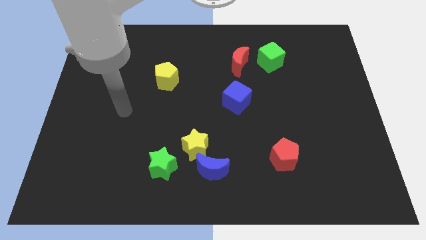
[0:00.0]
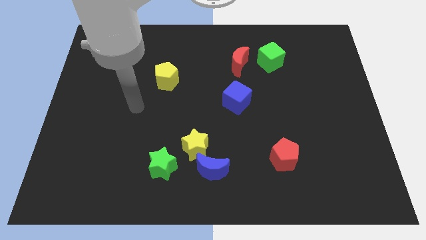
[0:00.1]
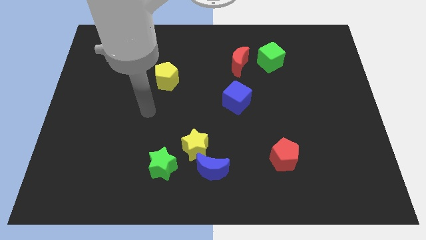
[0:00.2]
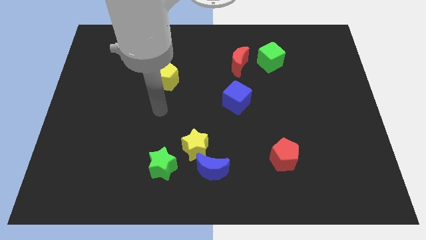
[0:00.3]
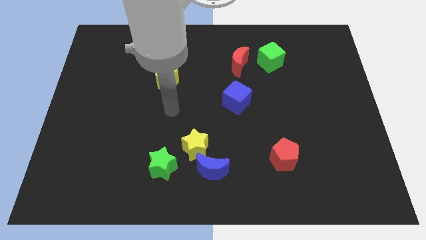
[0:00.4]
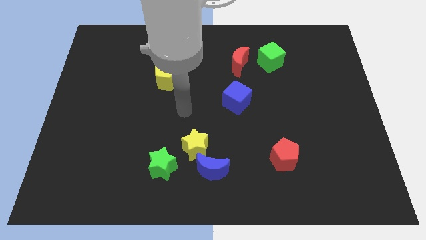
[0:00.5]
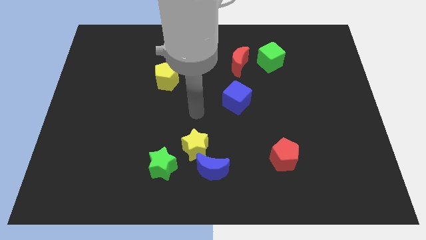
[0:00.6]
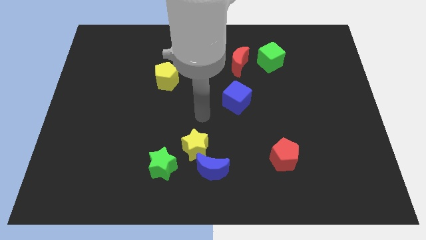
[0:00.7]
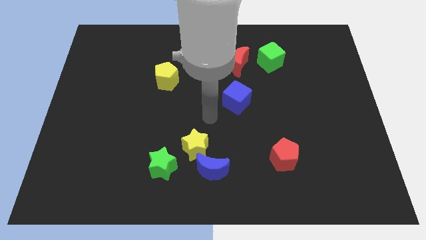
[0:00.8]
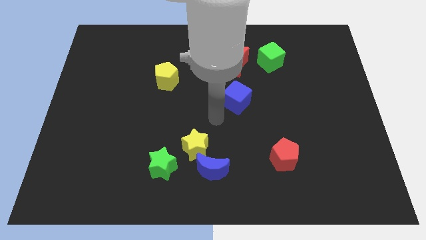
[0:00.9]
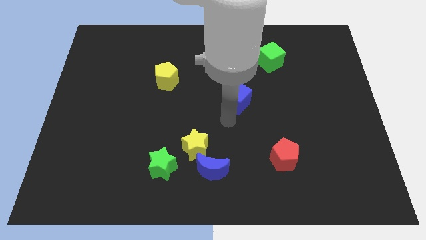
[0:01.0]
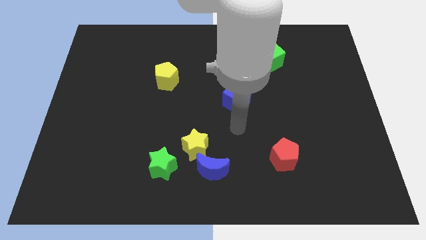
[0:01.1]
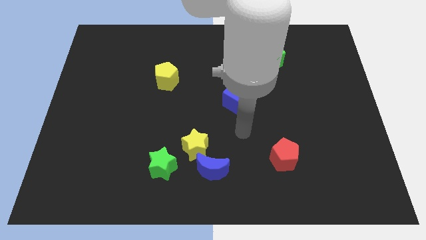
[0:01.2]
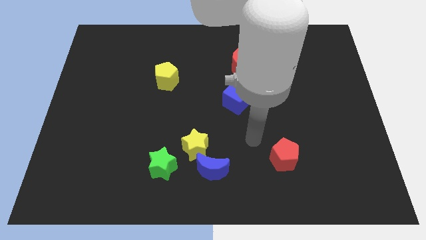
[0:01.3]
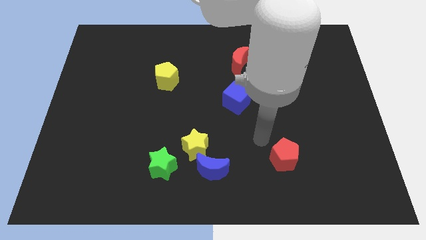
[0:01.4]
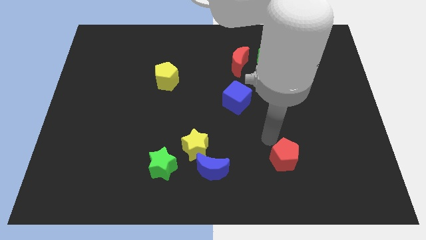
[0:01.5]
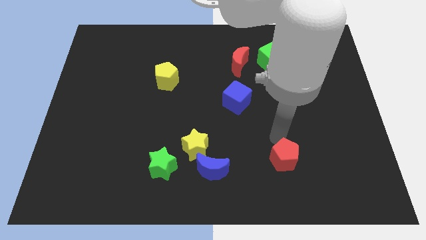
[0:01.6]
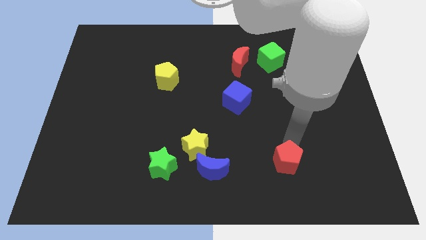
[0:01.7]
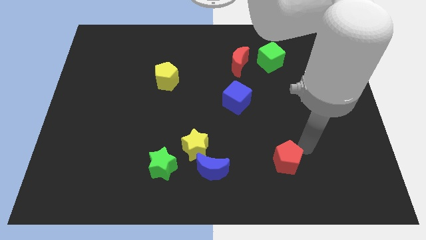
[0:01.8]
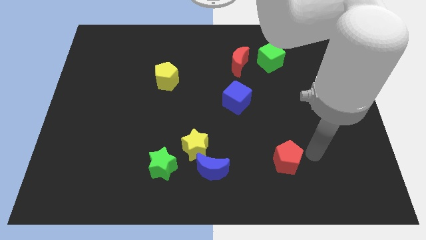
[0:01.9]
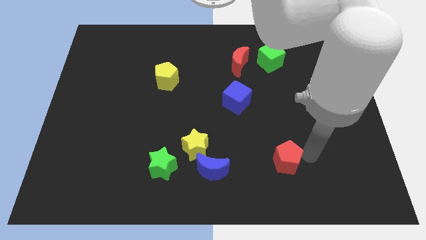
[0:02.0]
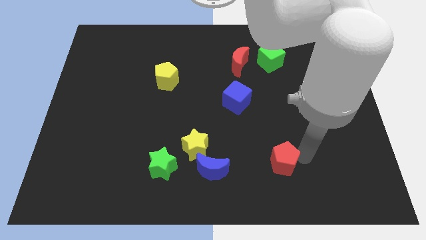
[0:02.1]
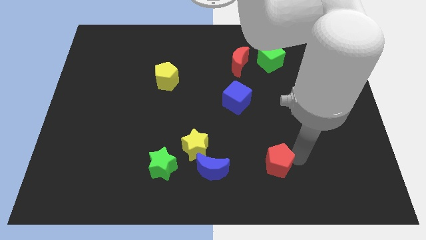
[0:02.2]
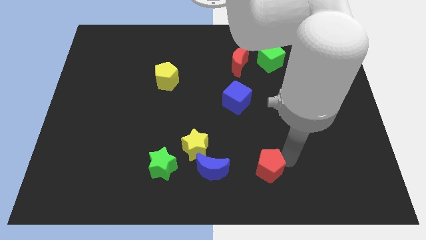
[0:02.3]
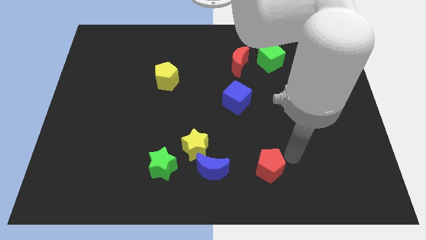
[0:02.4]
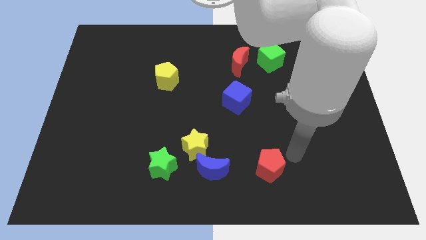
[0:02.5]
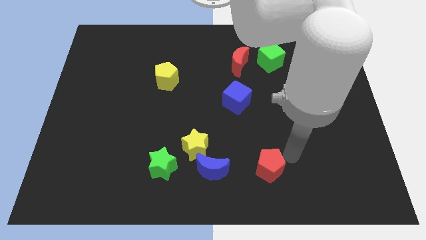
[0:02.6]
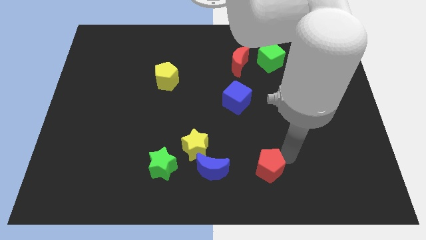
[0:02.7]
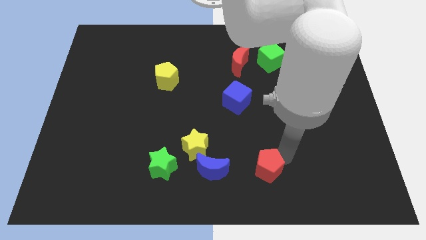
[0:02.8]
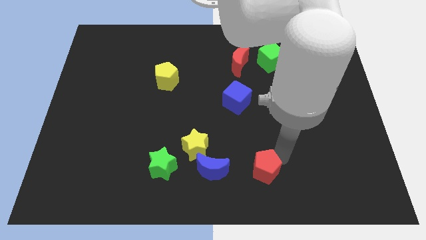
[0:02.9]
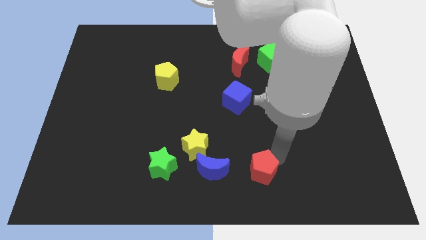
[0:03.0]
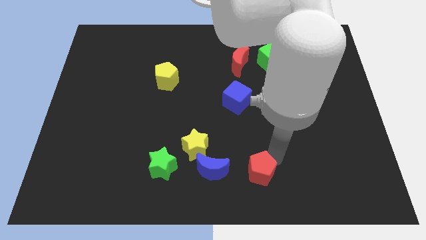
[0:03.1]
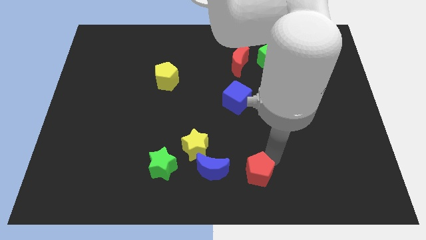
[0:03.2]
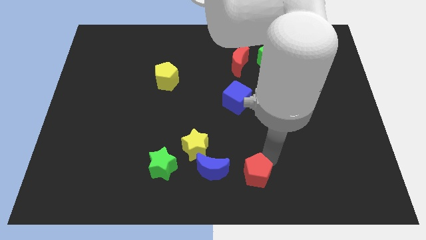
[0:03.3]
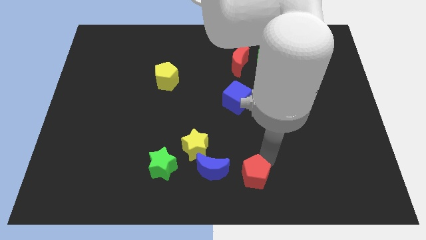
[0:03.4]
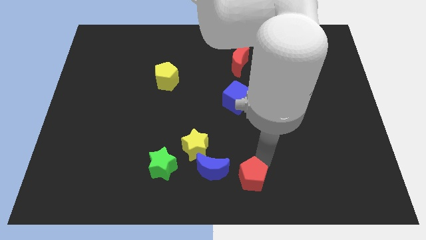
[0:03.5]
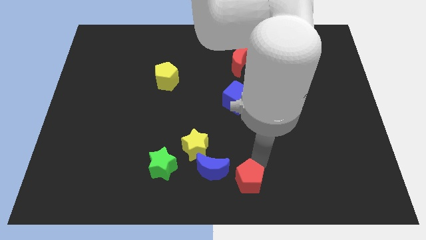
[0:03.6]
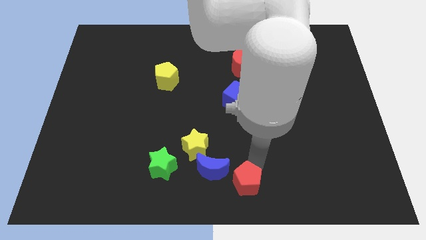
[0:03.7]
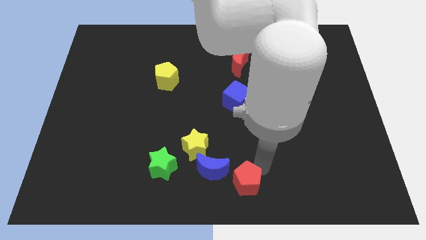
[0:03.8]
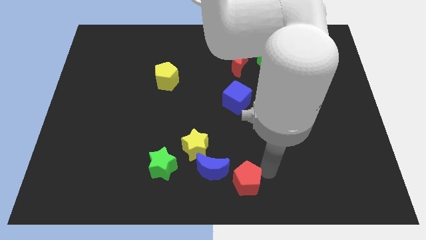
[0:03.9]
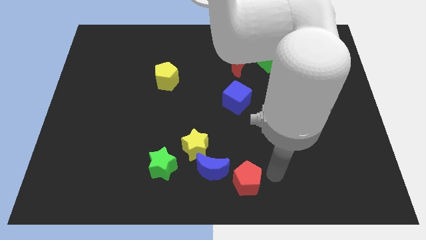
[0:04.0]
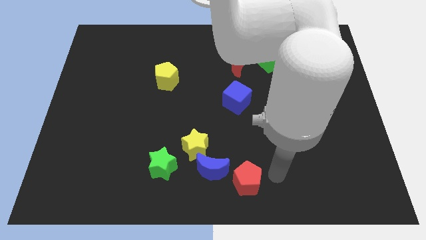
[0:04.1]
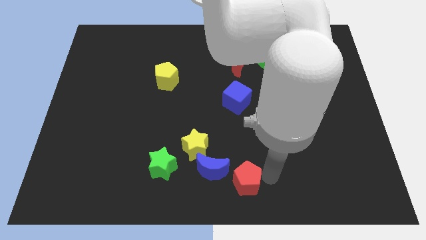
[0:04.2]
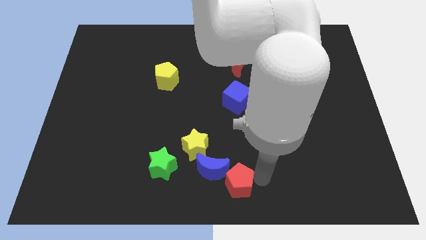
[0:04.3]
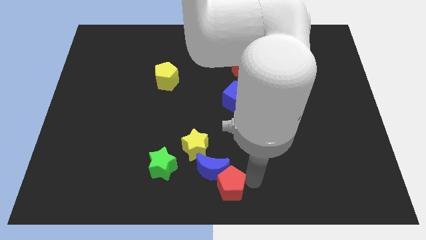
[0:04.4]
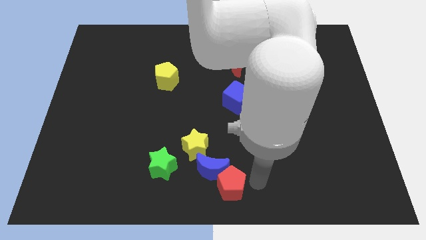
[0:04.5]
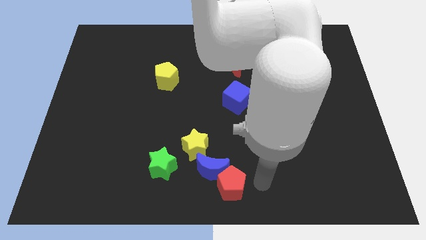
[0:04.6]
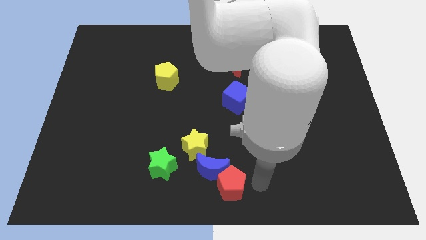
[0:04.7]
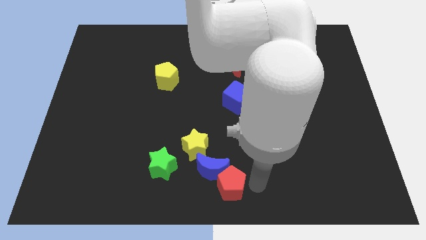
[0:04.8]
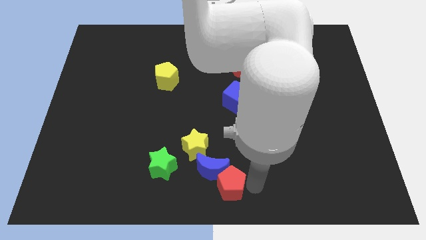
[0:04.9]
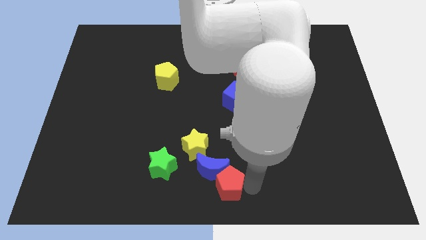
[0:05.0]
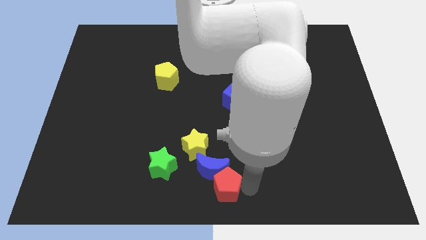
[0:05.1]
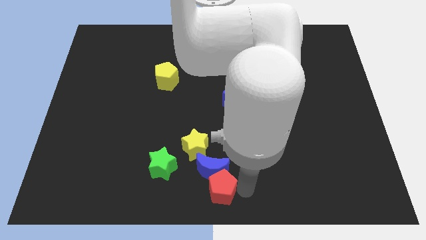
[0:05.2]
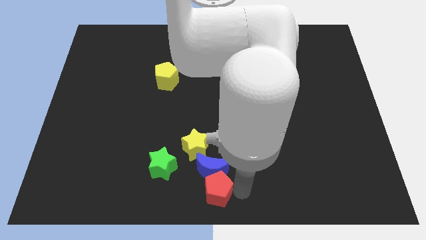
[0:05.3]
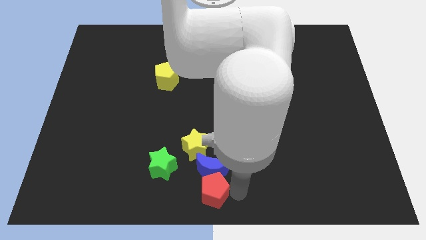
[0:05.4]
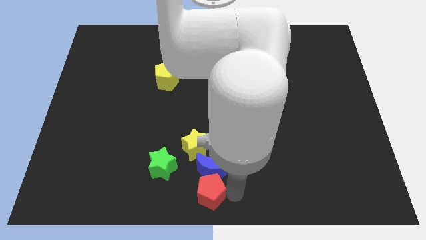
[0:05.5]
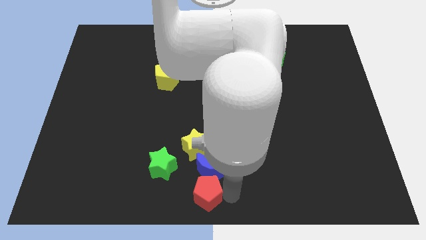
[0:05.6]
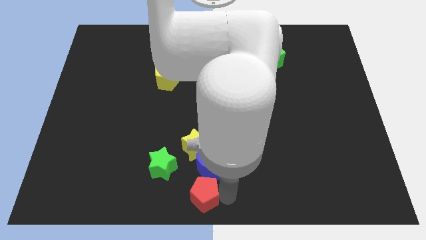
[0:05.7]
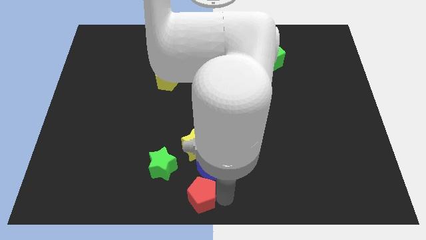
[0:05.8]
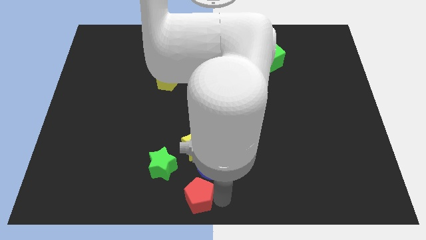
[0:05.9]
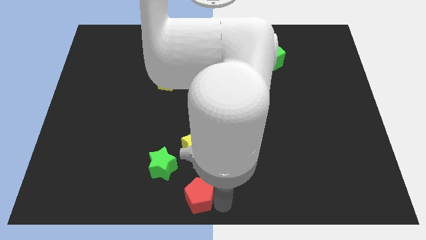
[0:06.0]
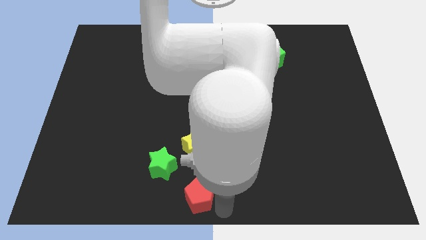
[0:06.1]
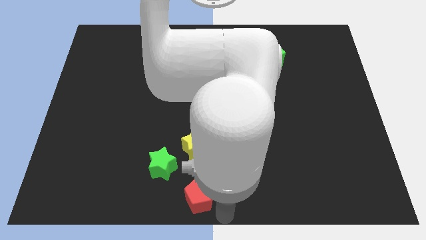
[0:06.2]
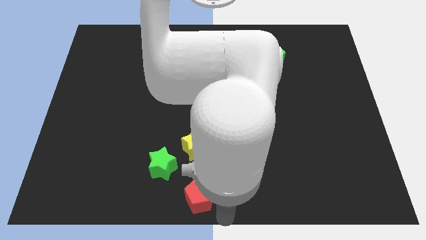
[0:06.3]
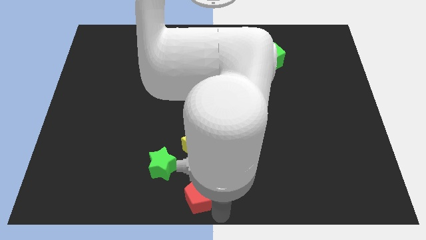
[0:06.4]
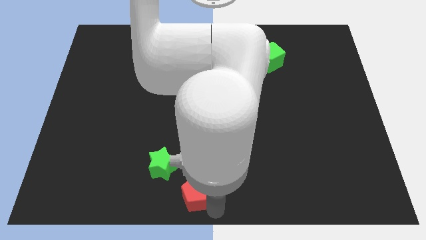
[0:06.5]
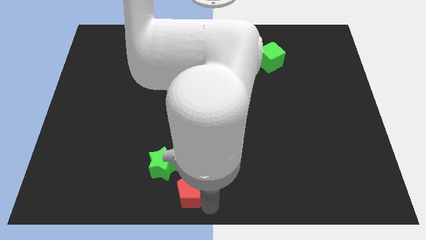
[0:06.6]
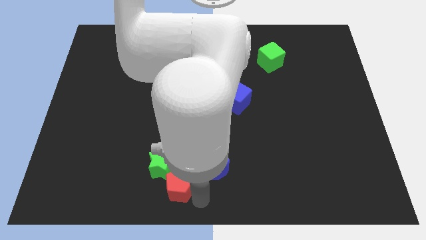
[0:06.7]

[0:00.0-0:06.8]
move the red pentagon next to the green star
